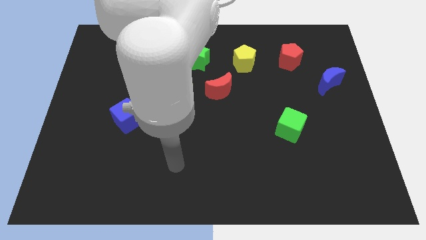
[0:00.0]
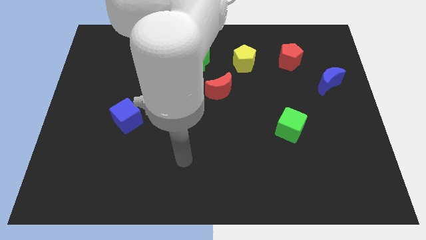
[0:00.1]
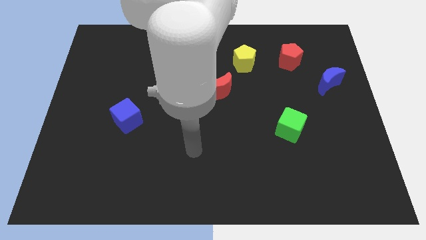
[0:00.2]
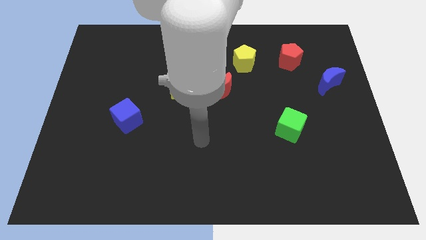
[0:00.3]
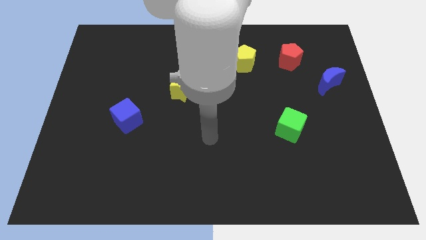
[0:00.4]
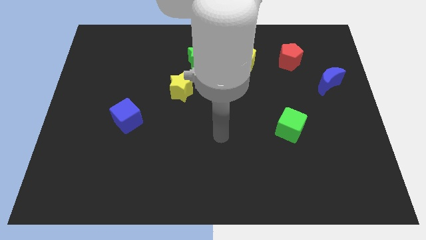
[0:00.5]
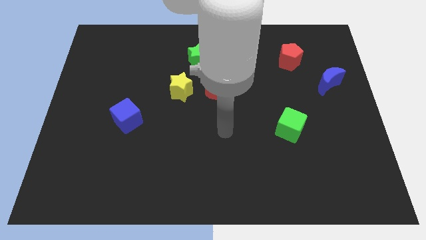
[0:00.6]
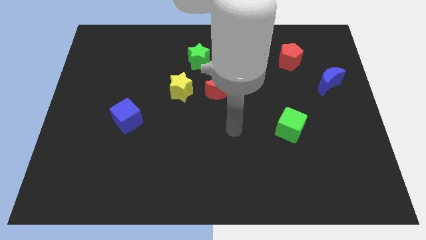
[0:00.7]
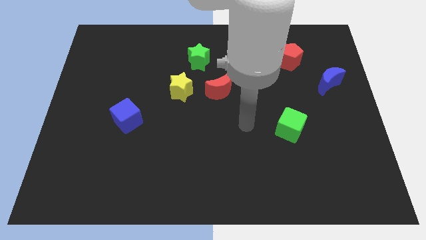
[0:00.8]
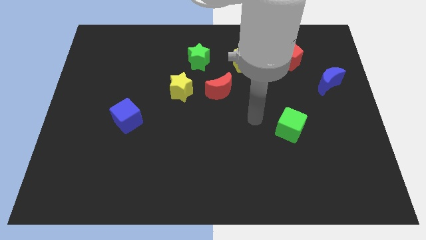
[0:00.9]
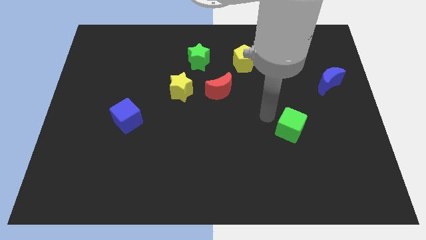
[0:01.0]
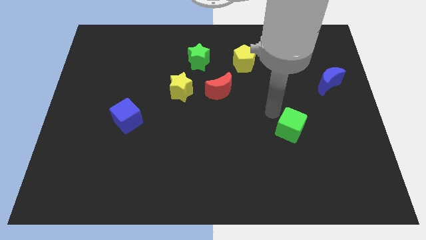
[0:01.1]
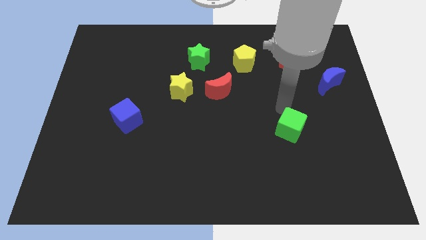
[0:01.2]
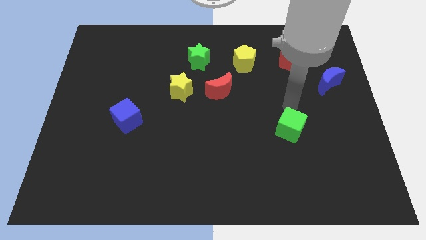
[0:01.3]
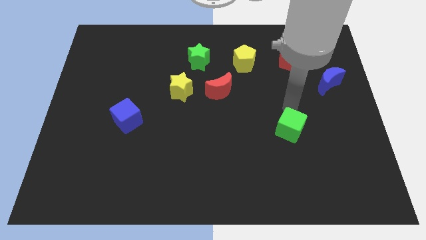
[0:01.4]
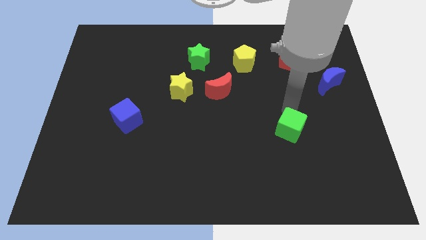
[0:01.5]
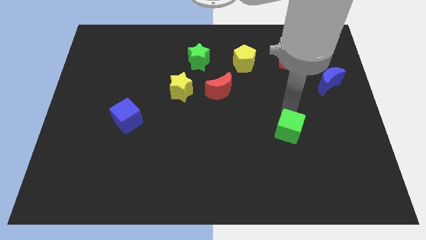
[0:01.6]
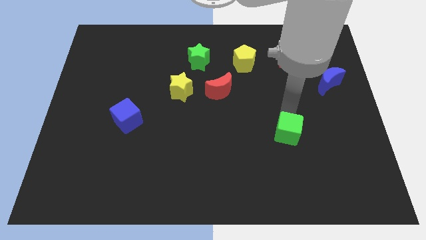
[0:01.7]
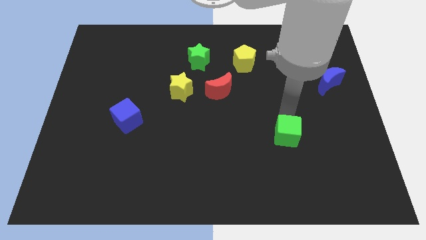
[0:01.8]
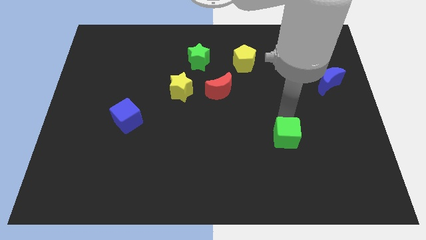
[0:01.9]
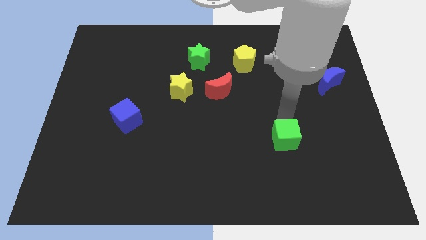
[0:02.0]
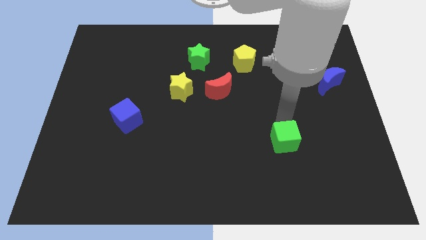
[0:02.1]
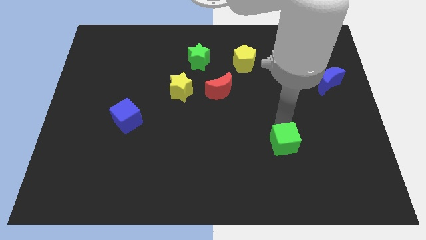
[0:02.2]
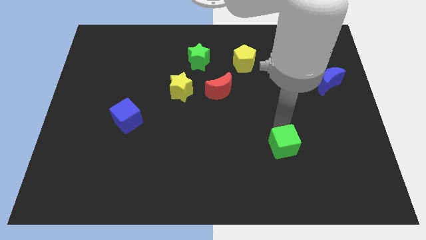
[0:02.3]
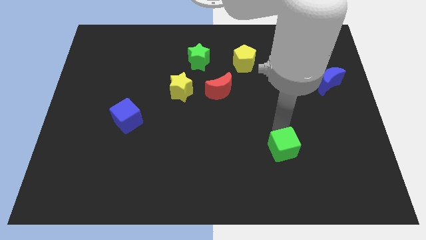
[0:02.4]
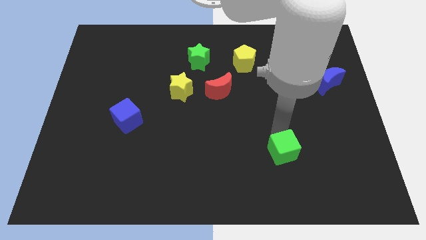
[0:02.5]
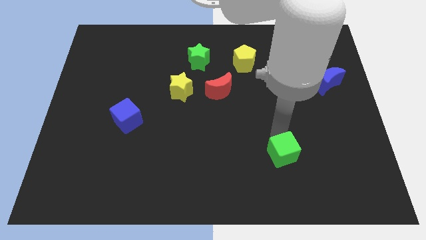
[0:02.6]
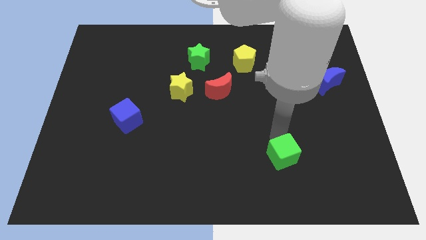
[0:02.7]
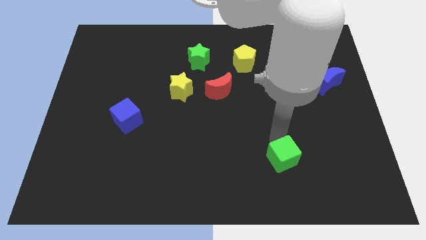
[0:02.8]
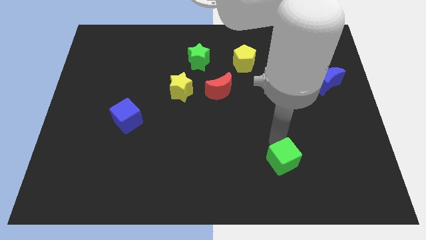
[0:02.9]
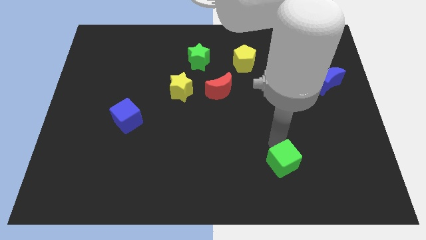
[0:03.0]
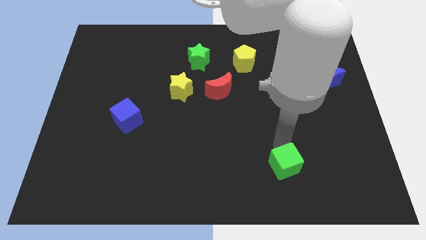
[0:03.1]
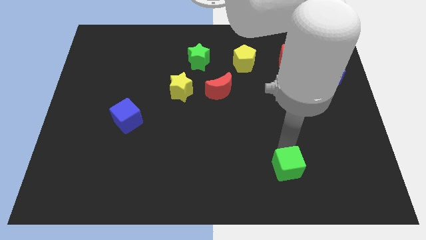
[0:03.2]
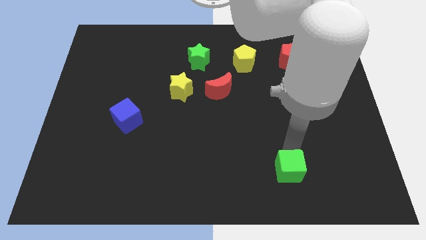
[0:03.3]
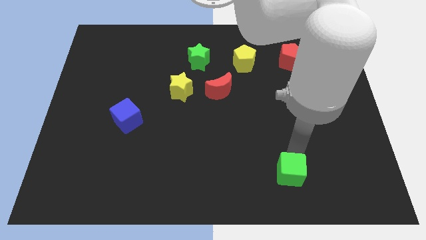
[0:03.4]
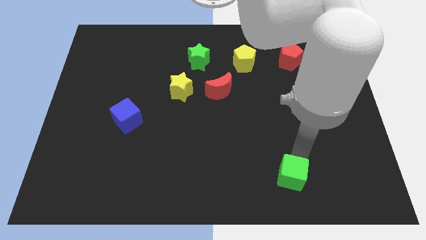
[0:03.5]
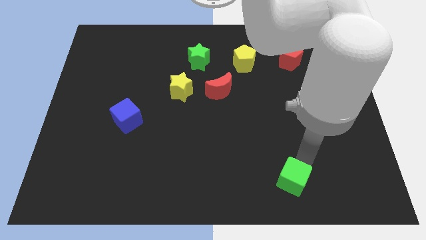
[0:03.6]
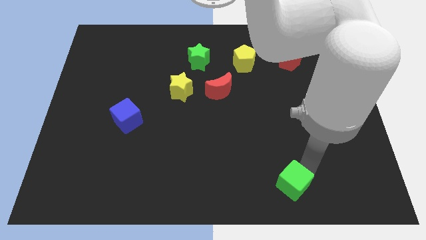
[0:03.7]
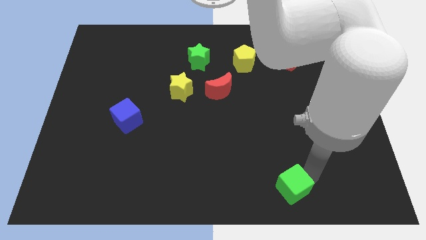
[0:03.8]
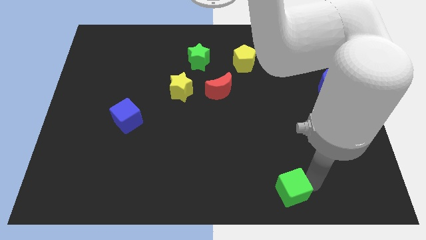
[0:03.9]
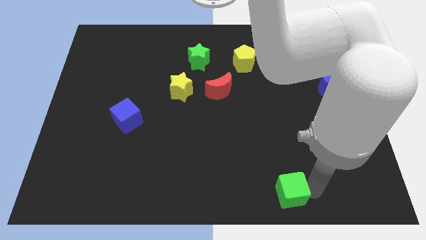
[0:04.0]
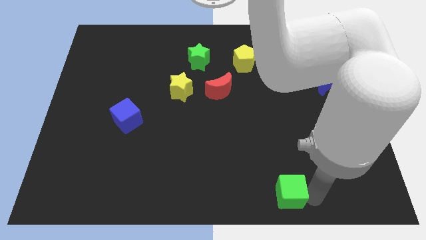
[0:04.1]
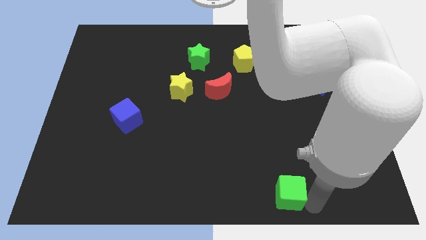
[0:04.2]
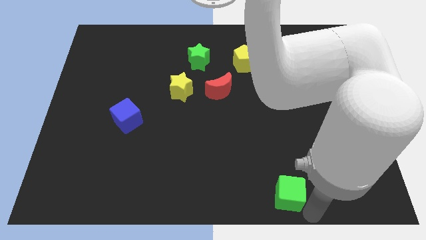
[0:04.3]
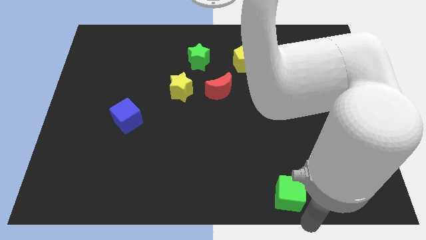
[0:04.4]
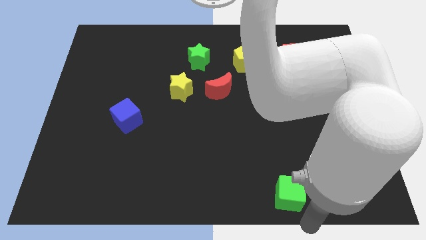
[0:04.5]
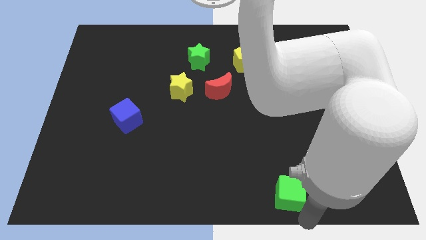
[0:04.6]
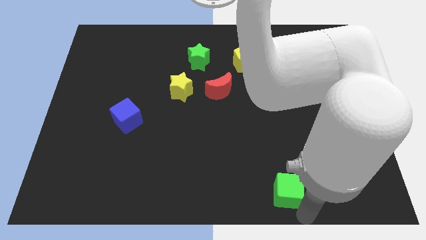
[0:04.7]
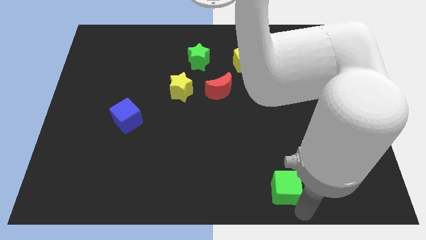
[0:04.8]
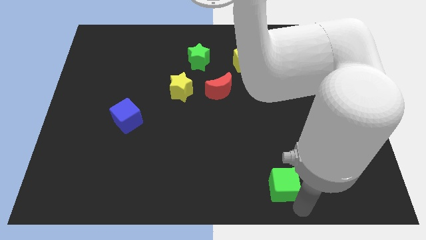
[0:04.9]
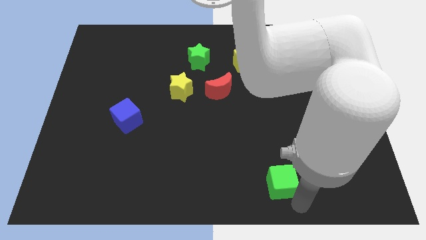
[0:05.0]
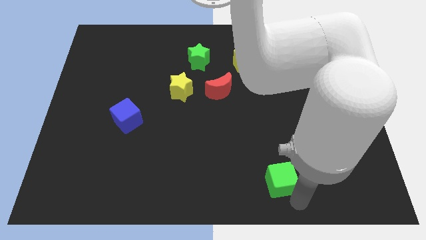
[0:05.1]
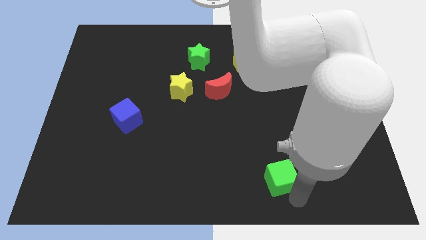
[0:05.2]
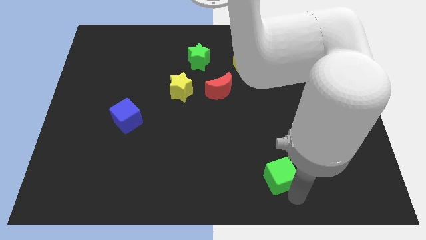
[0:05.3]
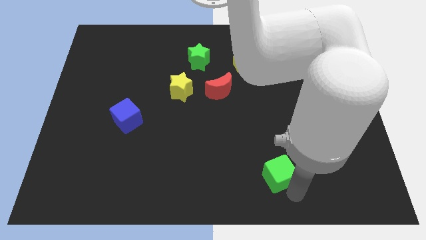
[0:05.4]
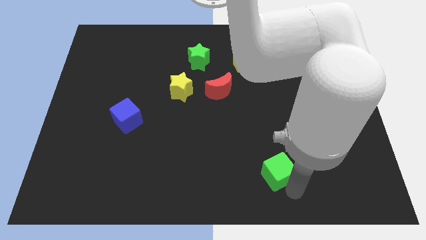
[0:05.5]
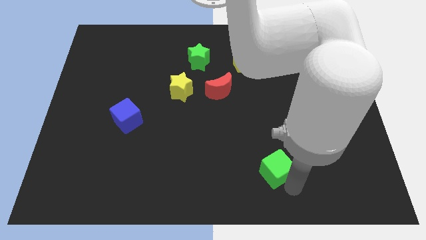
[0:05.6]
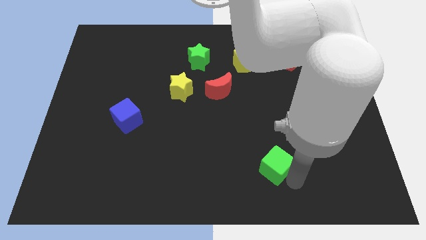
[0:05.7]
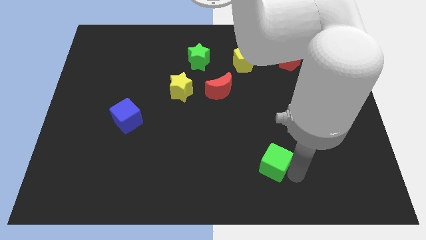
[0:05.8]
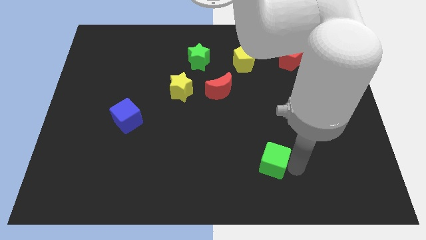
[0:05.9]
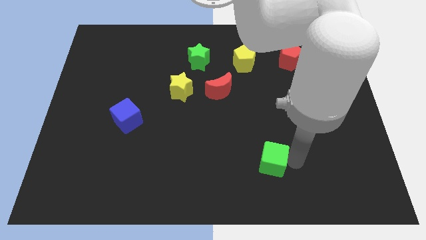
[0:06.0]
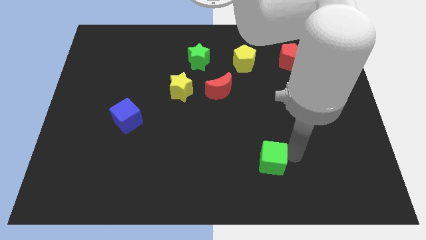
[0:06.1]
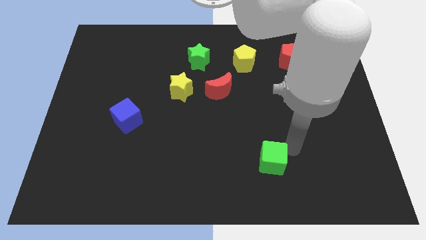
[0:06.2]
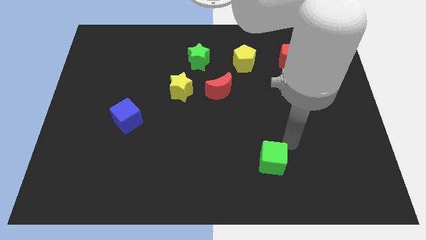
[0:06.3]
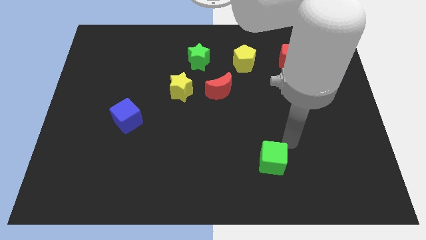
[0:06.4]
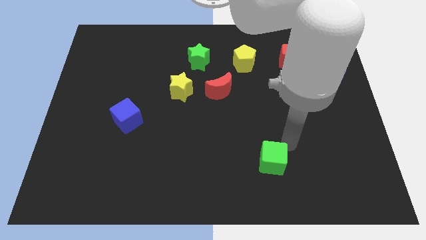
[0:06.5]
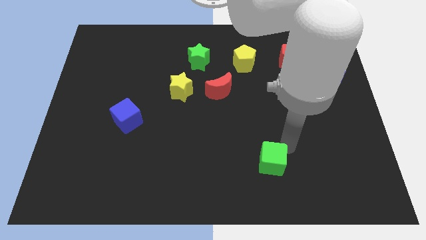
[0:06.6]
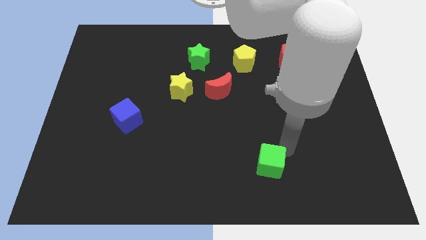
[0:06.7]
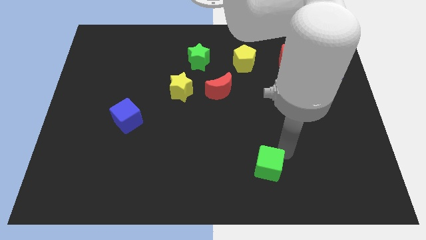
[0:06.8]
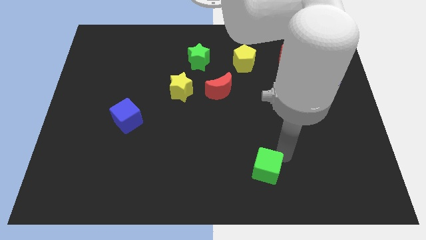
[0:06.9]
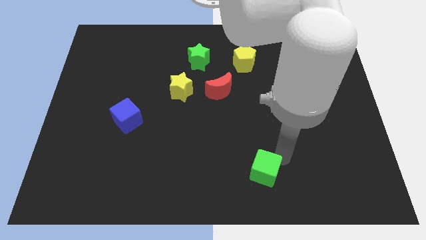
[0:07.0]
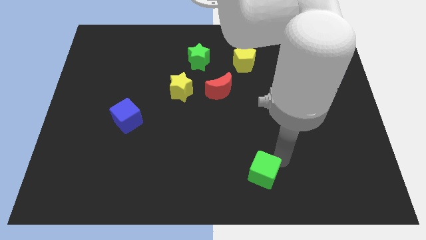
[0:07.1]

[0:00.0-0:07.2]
slide the green cube to the bottom

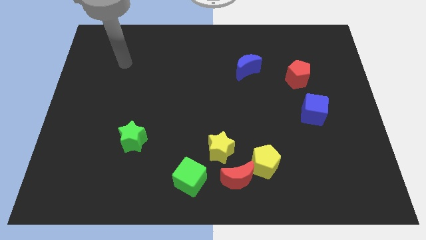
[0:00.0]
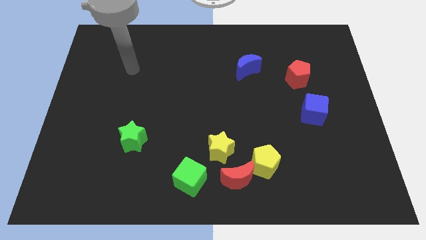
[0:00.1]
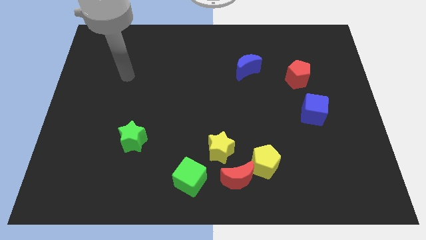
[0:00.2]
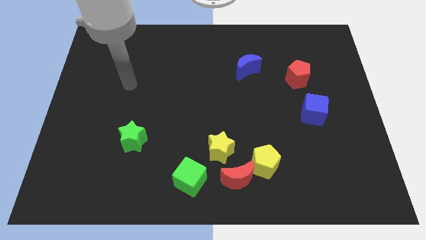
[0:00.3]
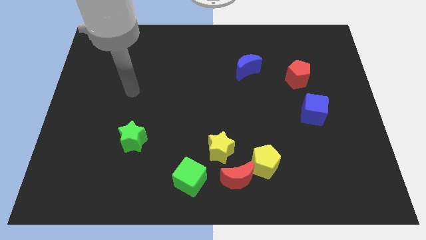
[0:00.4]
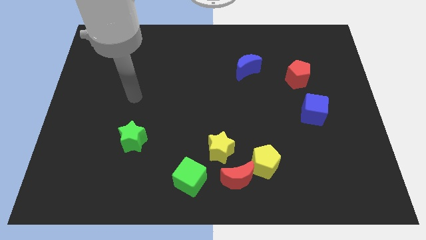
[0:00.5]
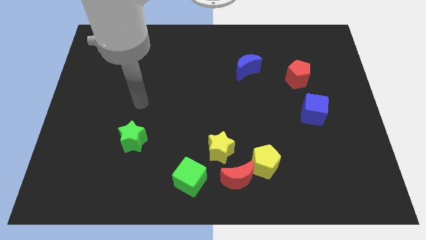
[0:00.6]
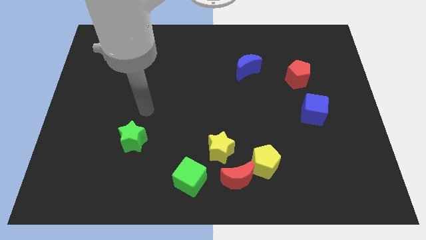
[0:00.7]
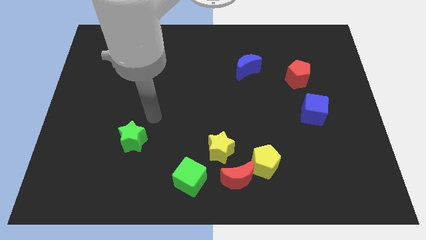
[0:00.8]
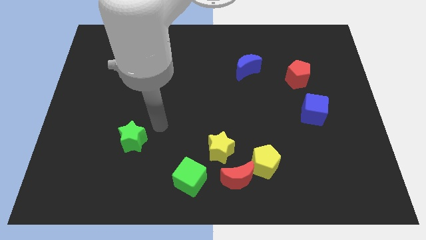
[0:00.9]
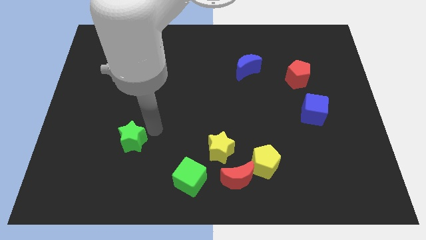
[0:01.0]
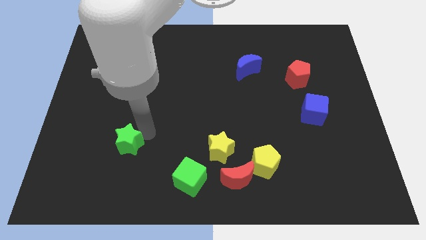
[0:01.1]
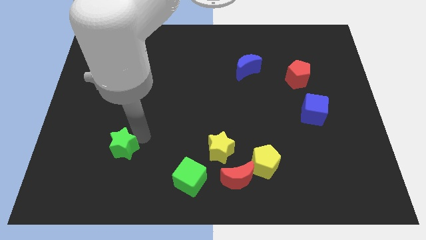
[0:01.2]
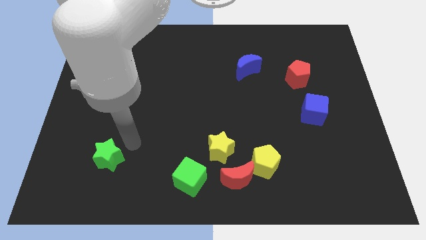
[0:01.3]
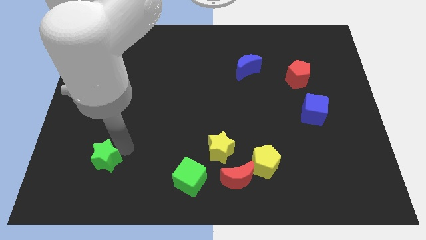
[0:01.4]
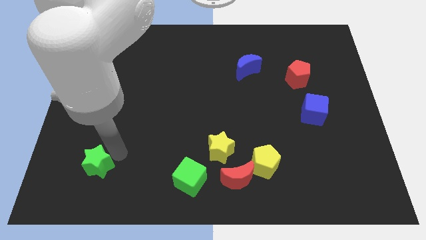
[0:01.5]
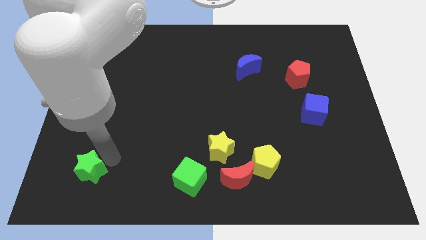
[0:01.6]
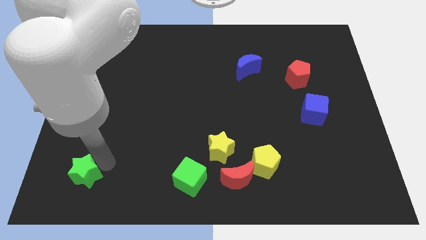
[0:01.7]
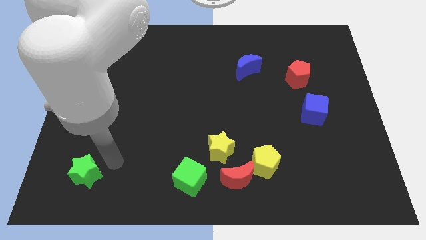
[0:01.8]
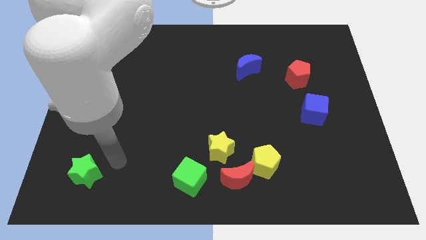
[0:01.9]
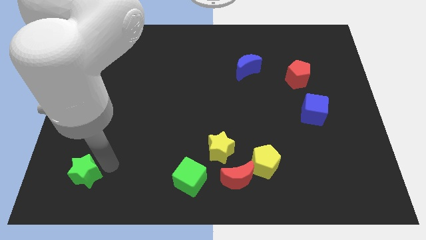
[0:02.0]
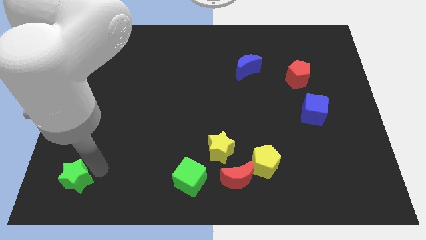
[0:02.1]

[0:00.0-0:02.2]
push the green star to the bottom left corner
